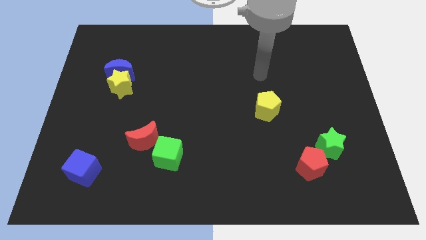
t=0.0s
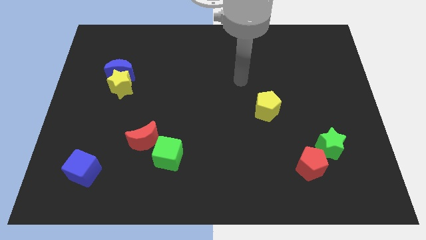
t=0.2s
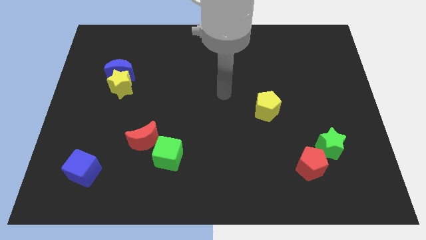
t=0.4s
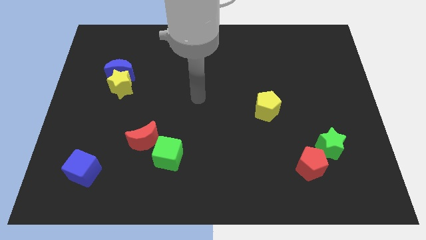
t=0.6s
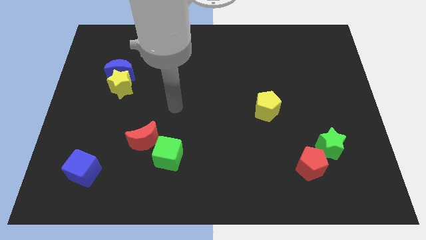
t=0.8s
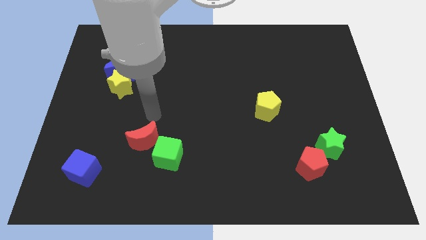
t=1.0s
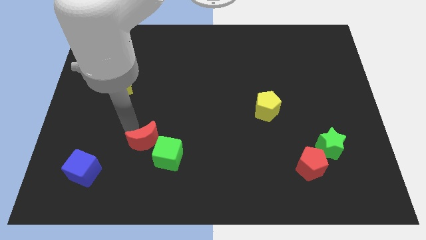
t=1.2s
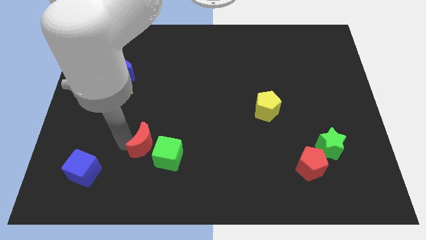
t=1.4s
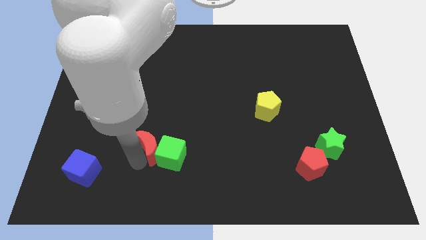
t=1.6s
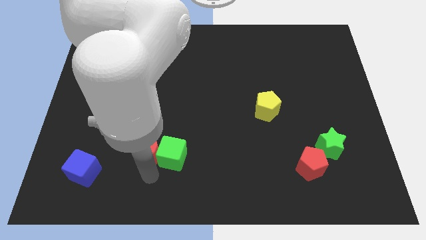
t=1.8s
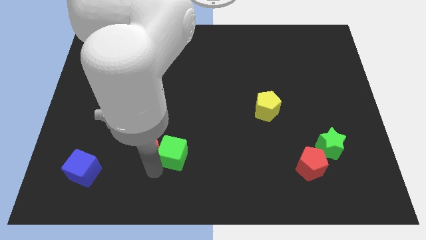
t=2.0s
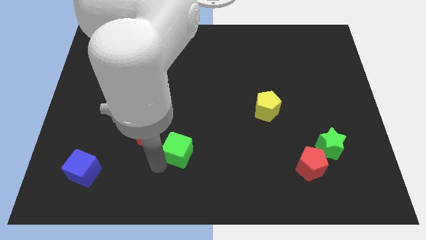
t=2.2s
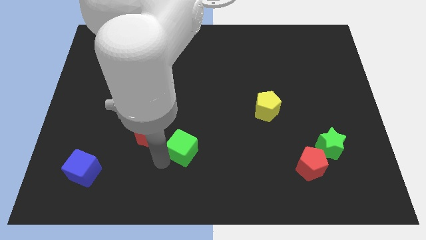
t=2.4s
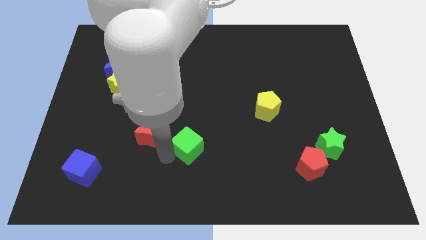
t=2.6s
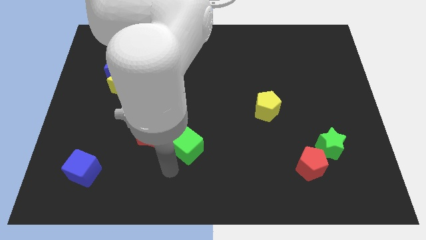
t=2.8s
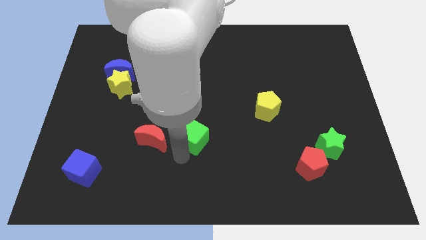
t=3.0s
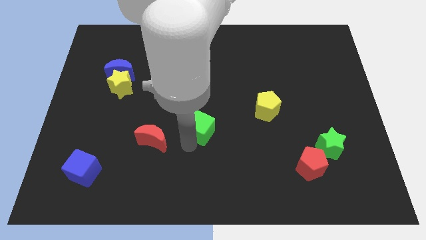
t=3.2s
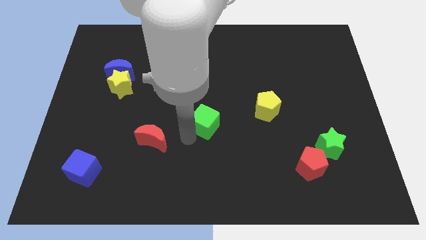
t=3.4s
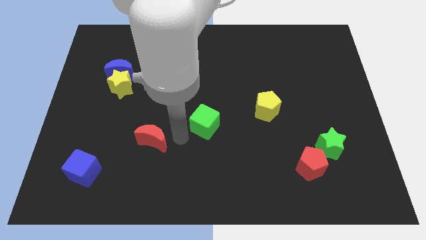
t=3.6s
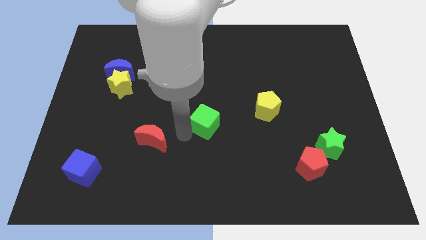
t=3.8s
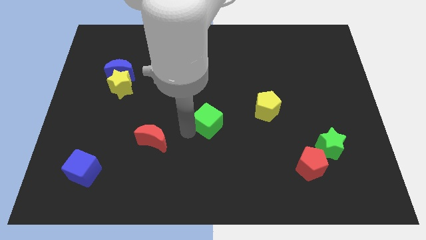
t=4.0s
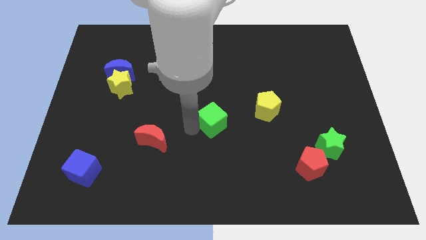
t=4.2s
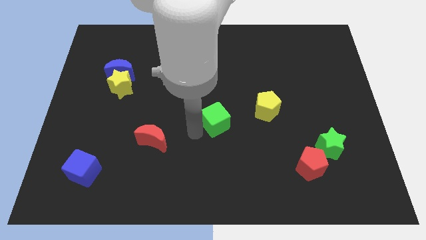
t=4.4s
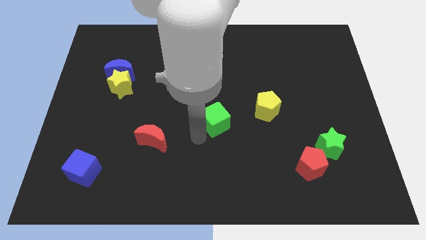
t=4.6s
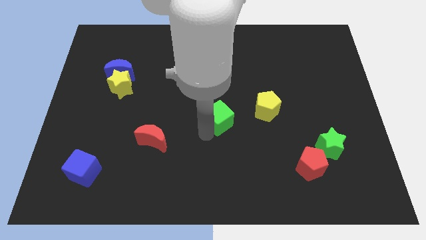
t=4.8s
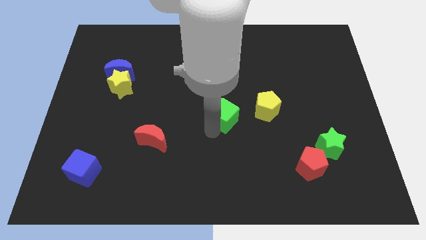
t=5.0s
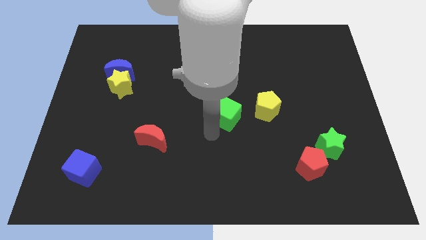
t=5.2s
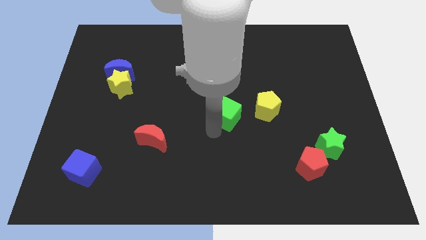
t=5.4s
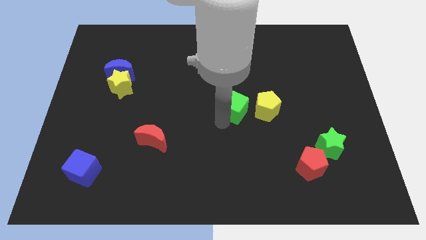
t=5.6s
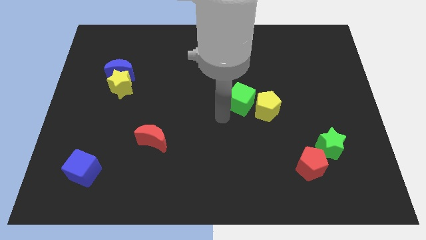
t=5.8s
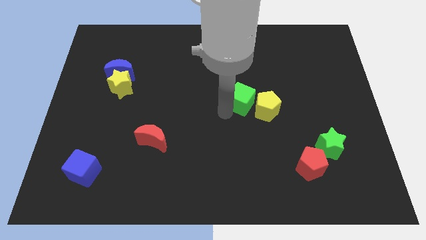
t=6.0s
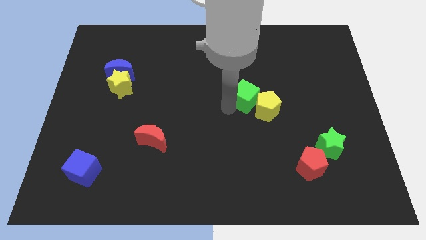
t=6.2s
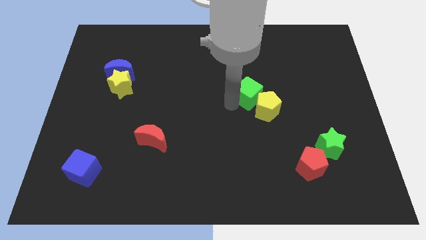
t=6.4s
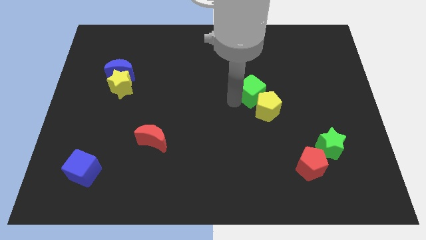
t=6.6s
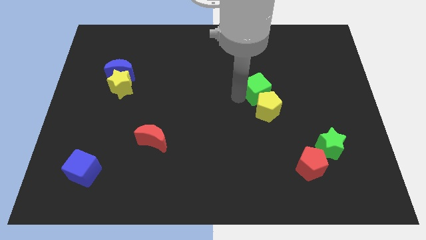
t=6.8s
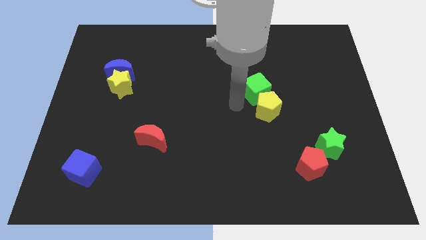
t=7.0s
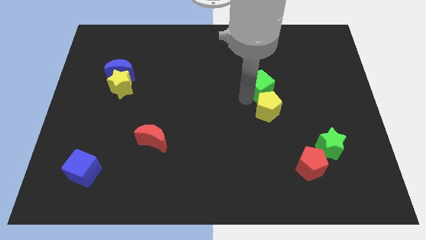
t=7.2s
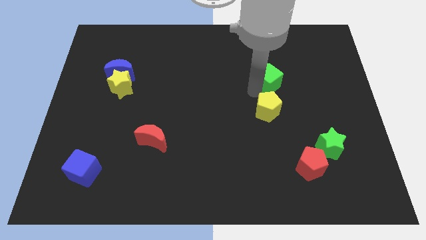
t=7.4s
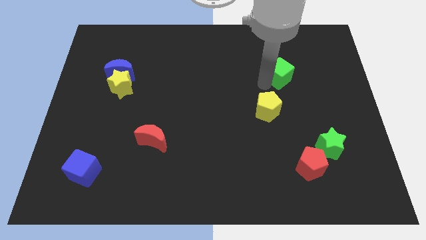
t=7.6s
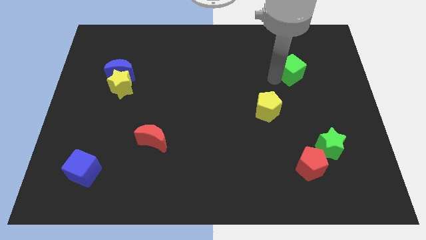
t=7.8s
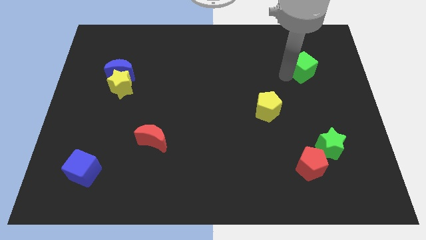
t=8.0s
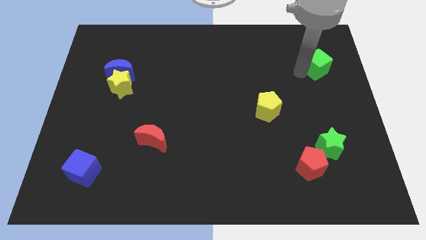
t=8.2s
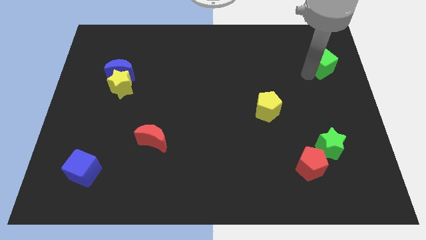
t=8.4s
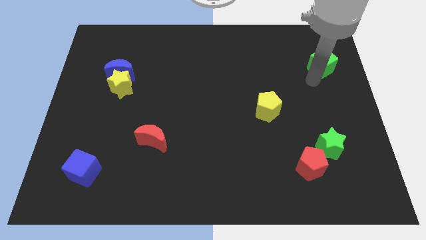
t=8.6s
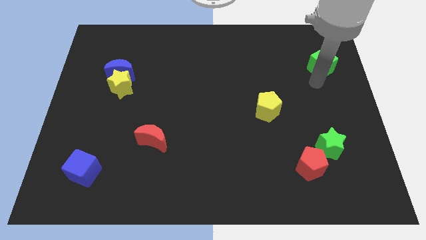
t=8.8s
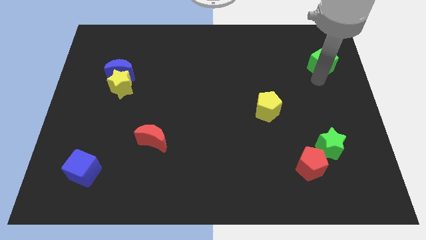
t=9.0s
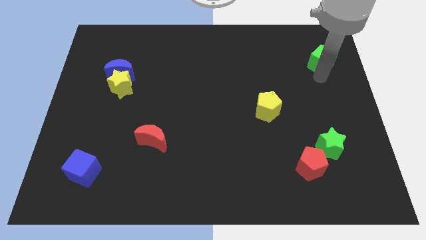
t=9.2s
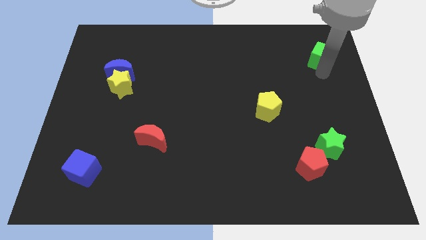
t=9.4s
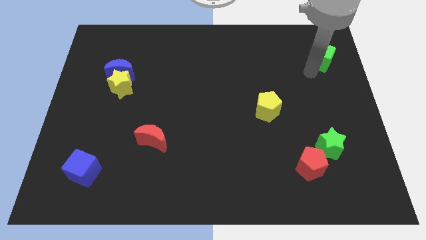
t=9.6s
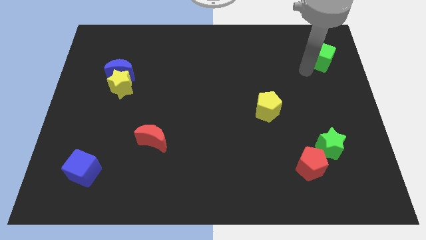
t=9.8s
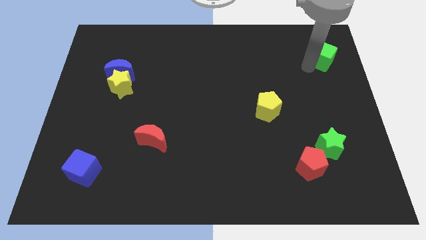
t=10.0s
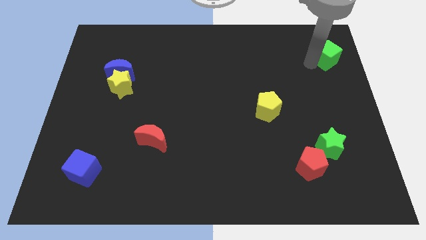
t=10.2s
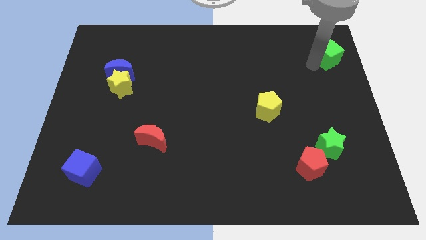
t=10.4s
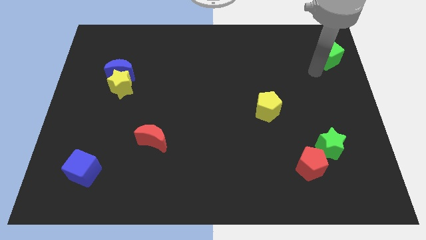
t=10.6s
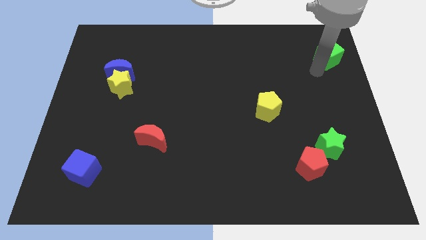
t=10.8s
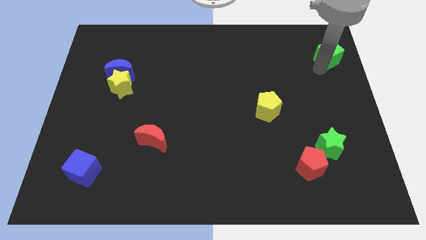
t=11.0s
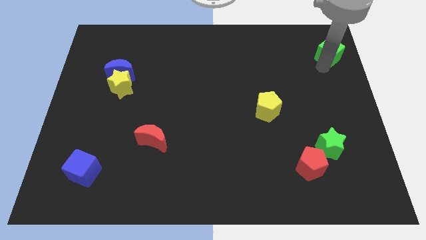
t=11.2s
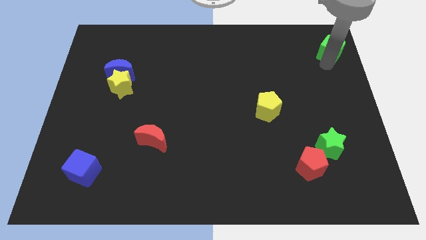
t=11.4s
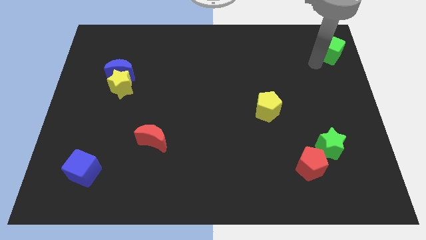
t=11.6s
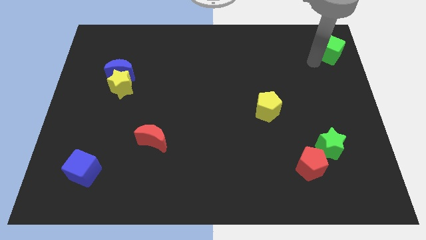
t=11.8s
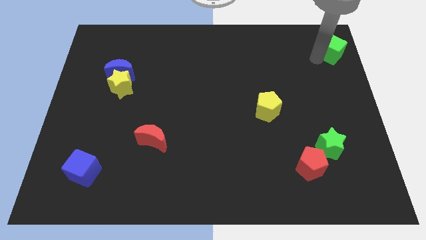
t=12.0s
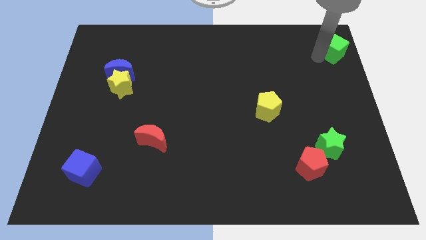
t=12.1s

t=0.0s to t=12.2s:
move the green cube to the upper right corner

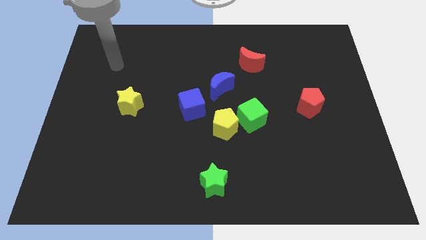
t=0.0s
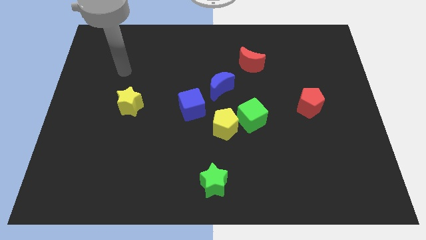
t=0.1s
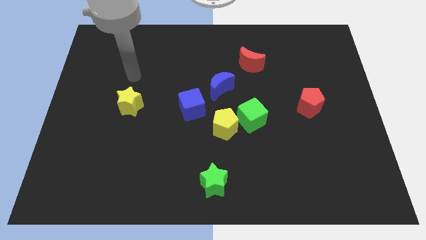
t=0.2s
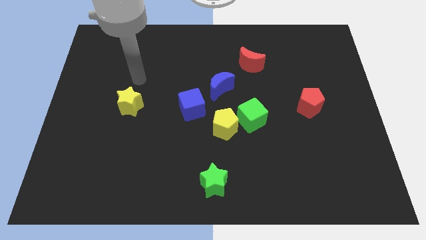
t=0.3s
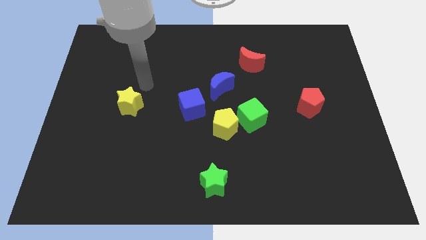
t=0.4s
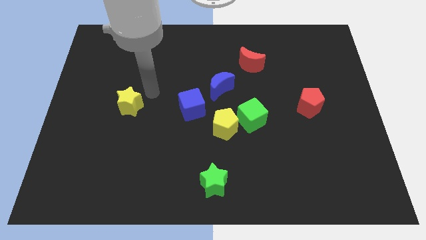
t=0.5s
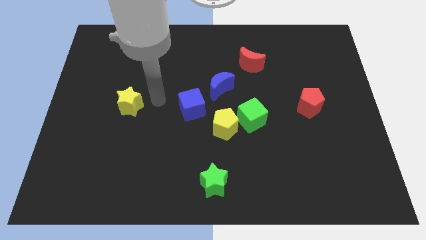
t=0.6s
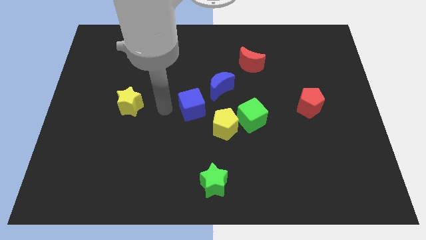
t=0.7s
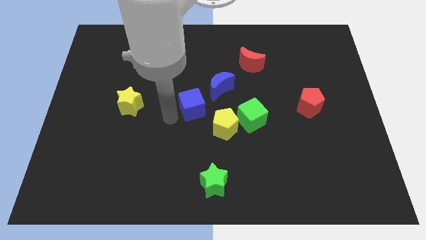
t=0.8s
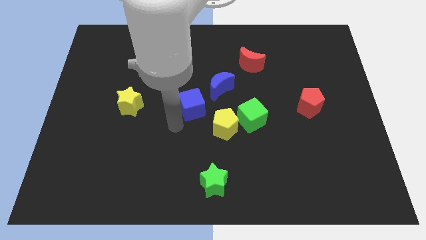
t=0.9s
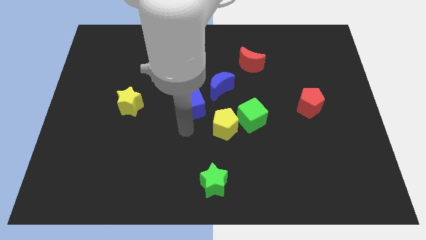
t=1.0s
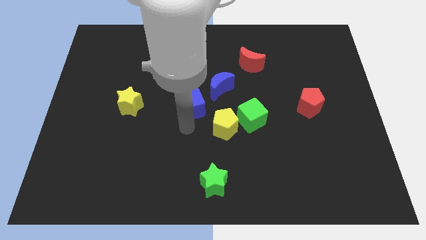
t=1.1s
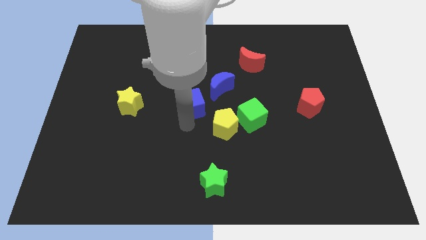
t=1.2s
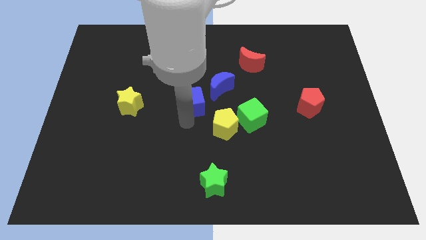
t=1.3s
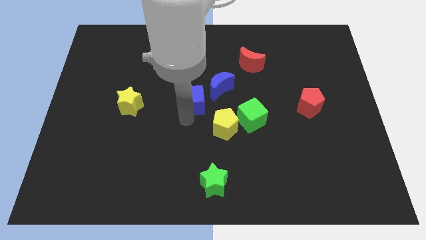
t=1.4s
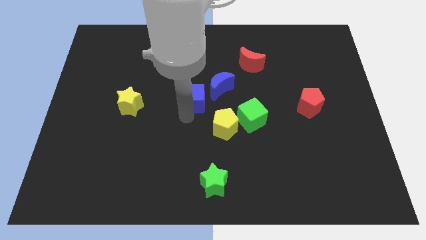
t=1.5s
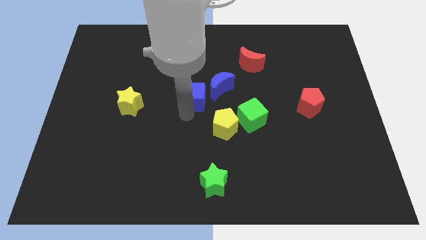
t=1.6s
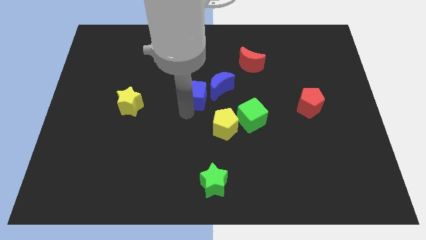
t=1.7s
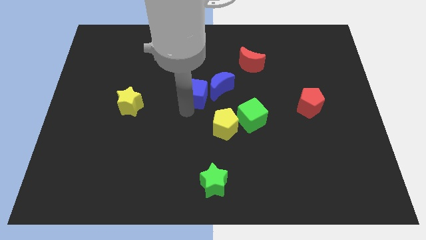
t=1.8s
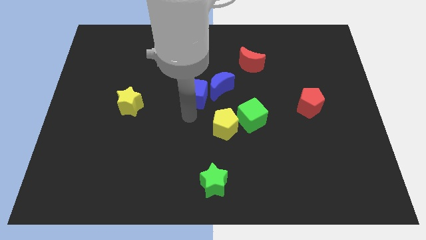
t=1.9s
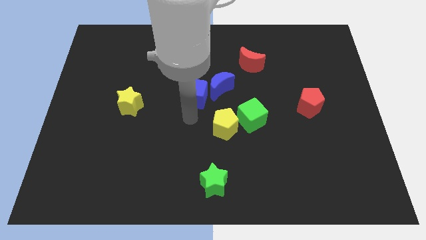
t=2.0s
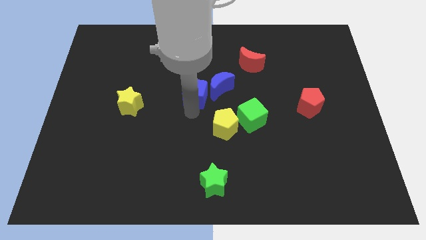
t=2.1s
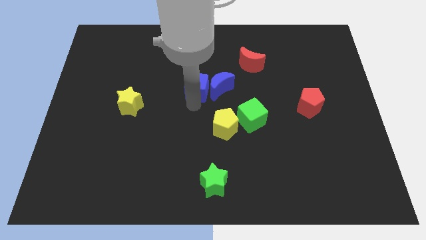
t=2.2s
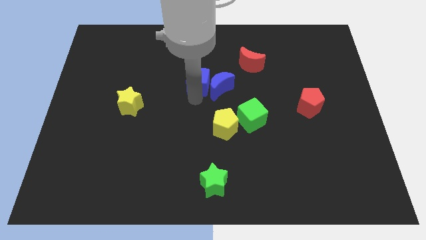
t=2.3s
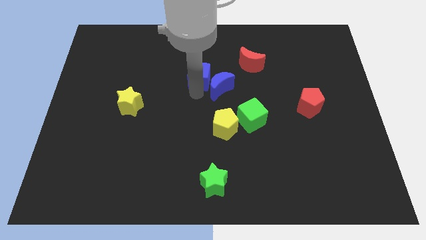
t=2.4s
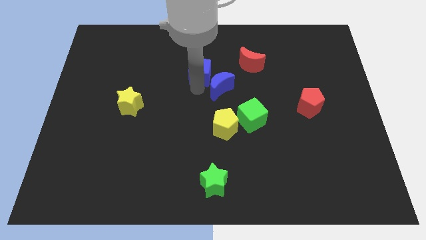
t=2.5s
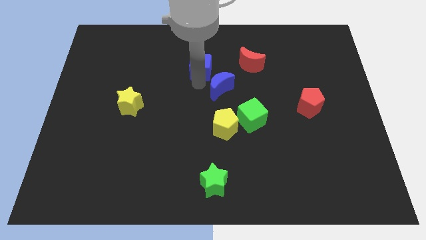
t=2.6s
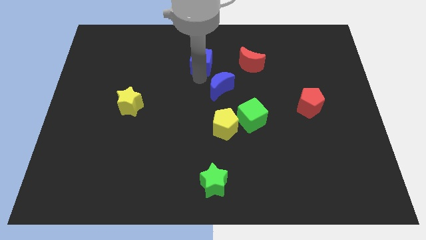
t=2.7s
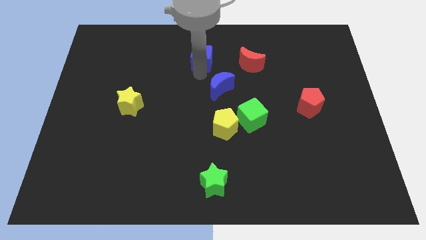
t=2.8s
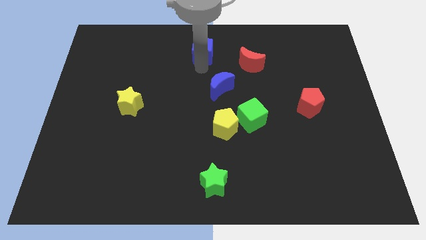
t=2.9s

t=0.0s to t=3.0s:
push the blue cube to the top side
